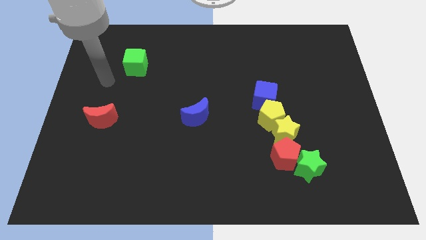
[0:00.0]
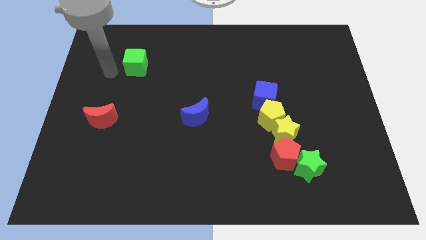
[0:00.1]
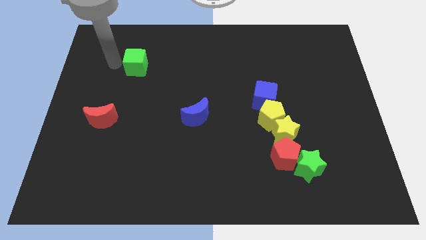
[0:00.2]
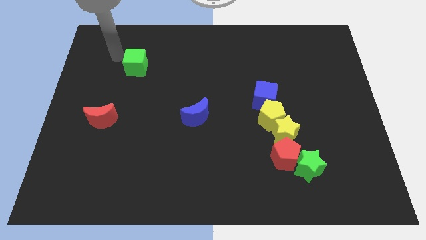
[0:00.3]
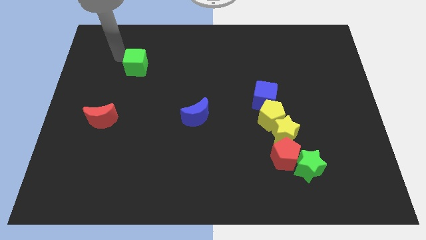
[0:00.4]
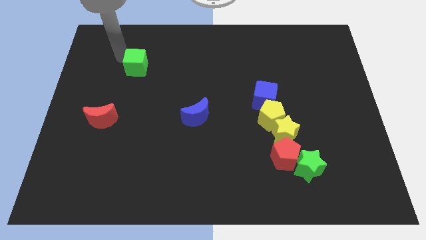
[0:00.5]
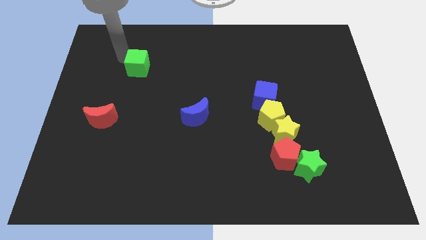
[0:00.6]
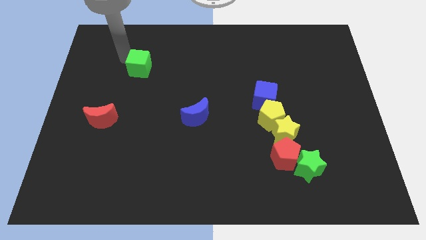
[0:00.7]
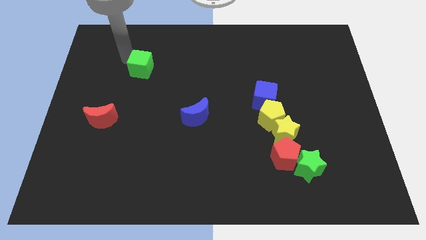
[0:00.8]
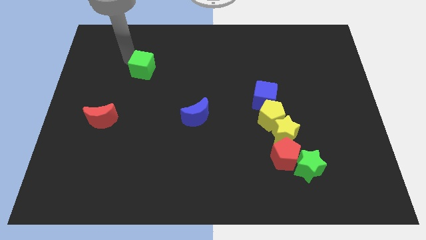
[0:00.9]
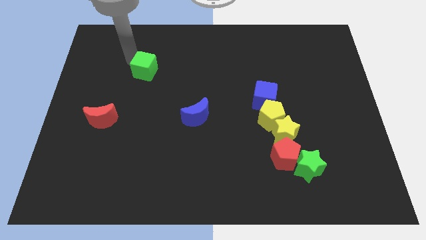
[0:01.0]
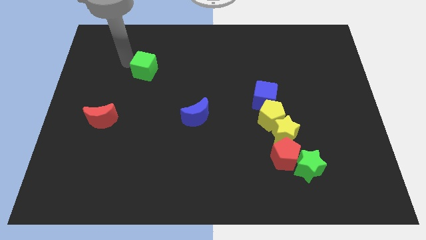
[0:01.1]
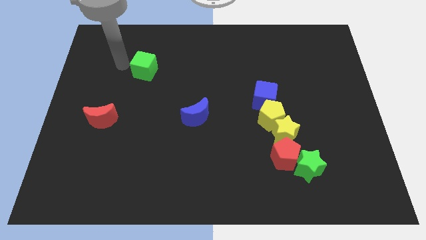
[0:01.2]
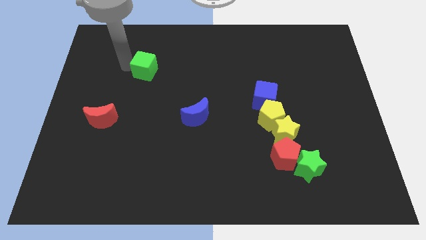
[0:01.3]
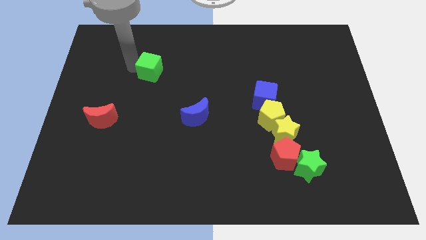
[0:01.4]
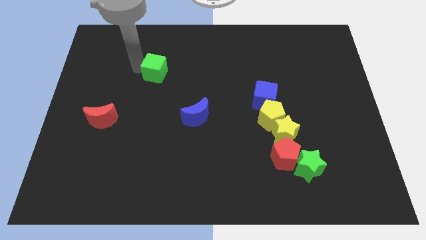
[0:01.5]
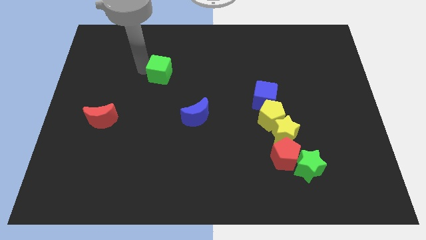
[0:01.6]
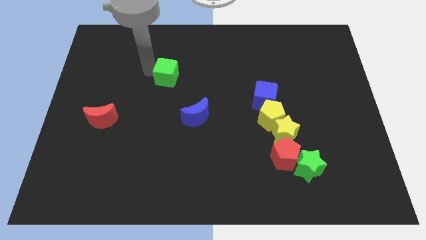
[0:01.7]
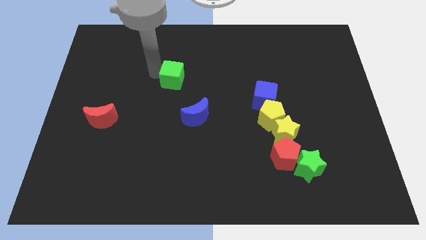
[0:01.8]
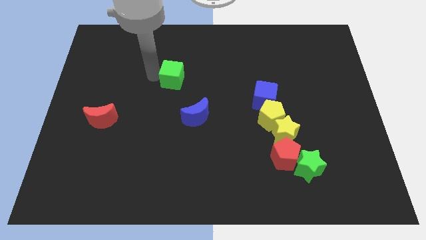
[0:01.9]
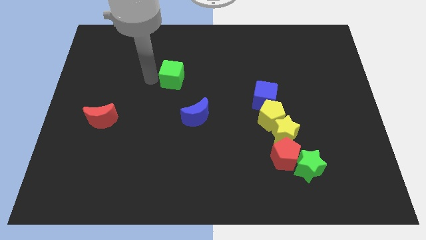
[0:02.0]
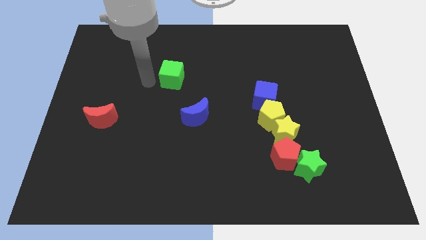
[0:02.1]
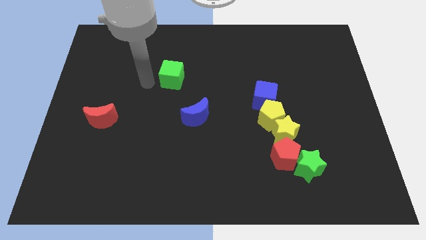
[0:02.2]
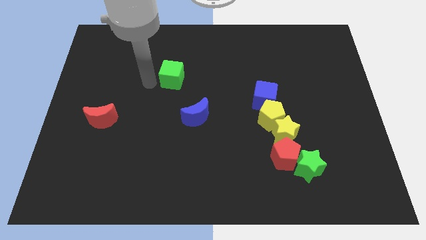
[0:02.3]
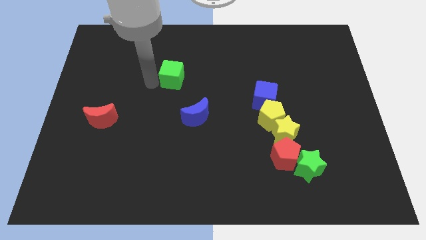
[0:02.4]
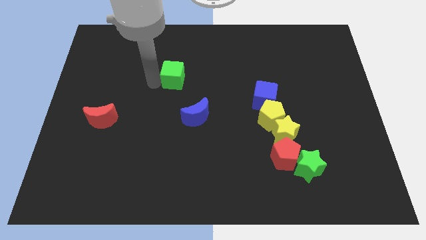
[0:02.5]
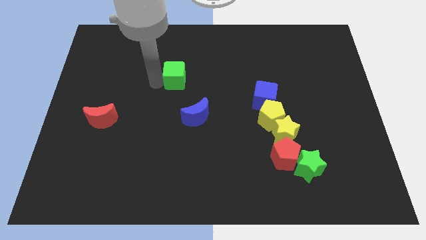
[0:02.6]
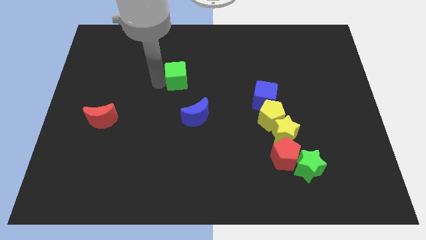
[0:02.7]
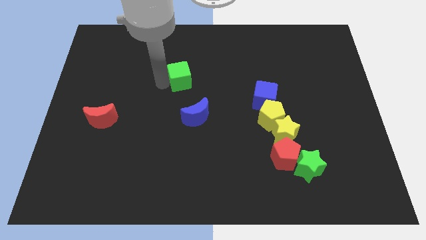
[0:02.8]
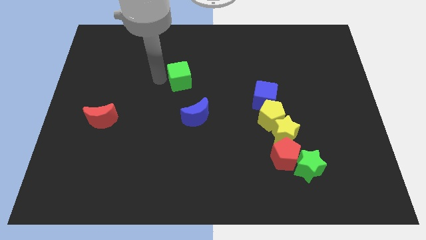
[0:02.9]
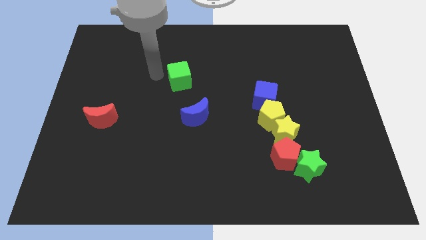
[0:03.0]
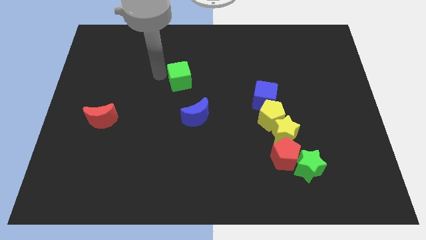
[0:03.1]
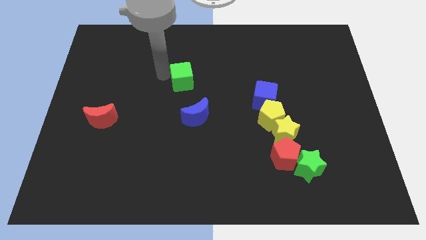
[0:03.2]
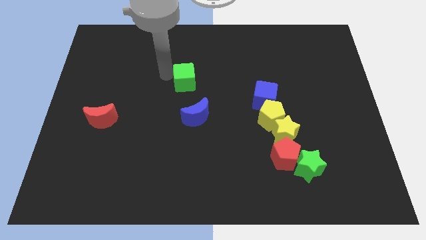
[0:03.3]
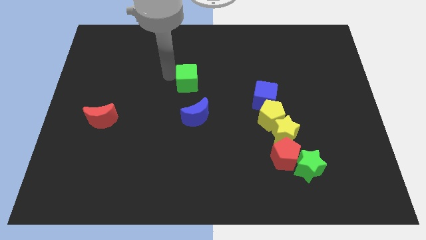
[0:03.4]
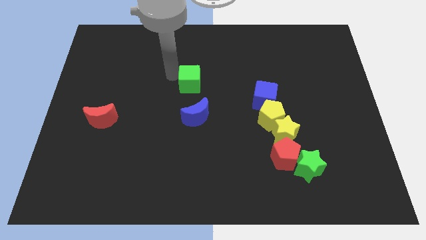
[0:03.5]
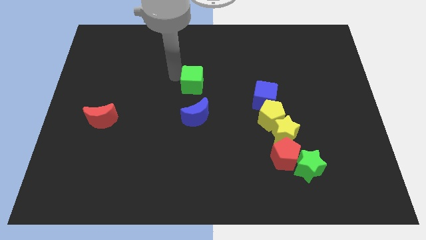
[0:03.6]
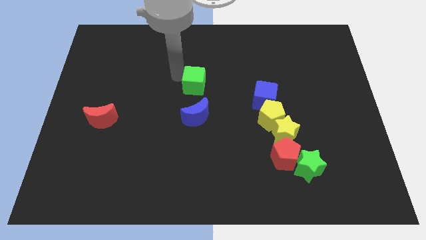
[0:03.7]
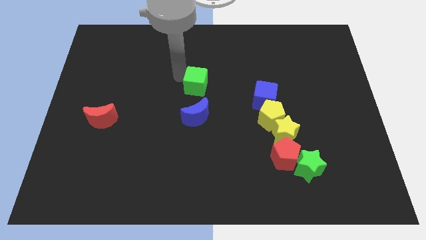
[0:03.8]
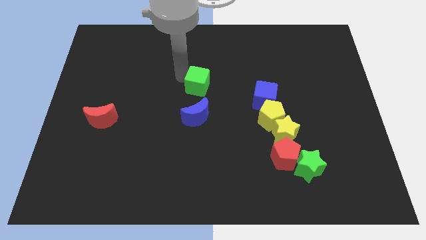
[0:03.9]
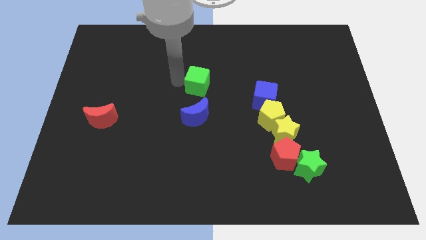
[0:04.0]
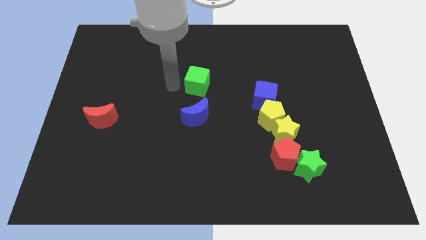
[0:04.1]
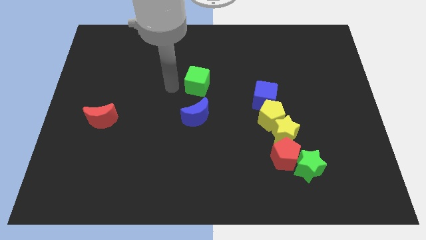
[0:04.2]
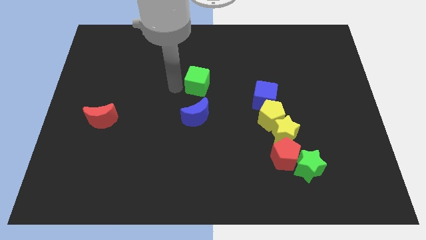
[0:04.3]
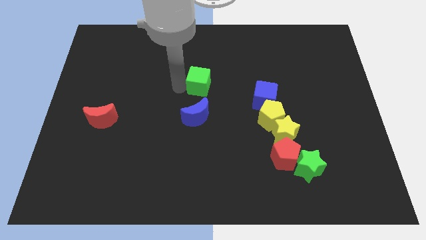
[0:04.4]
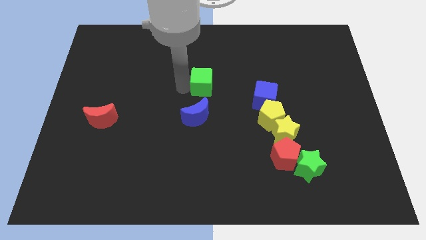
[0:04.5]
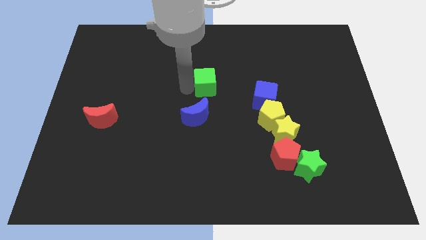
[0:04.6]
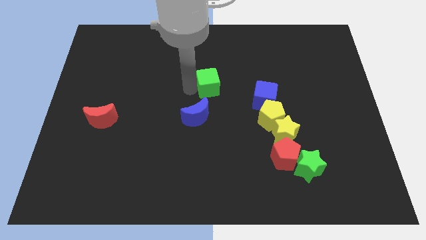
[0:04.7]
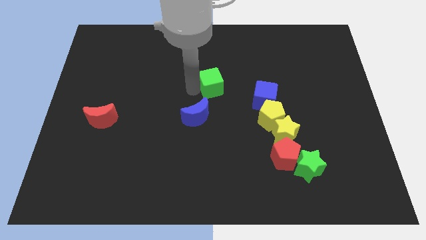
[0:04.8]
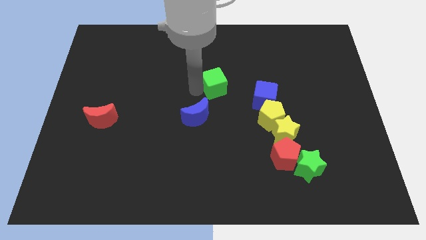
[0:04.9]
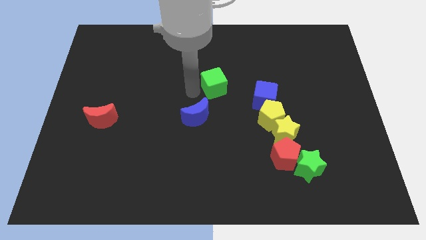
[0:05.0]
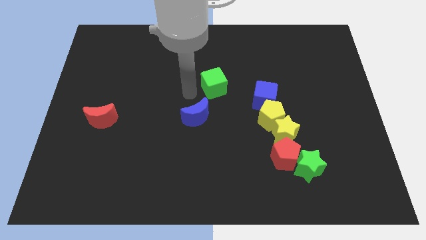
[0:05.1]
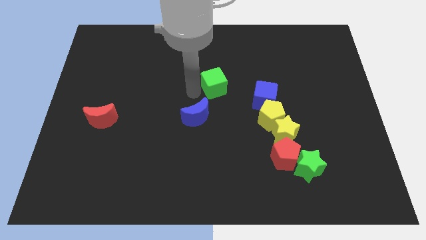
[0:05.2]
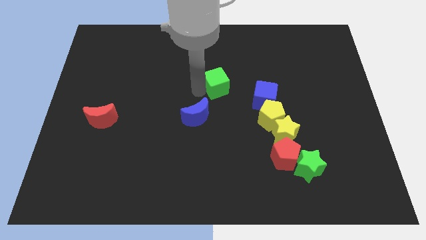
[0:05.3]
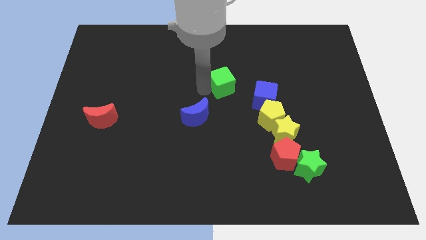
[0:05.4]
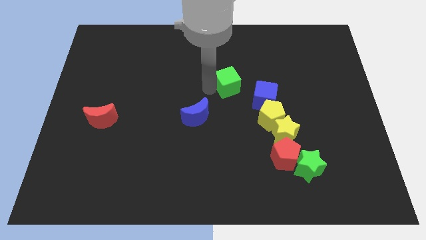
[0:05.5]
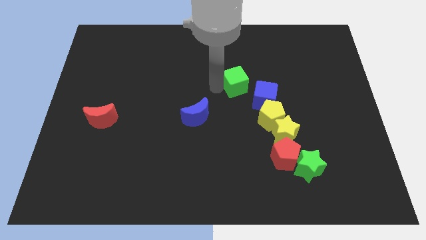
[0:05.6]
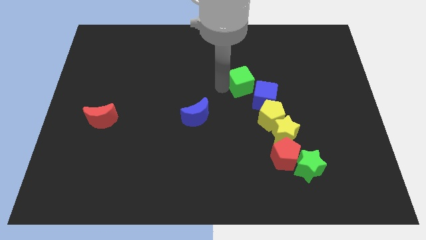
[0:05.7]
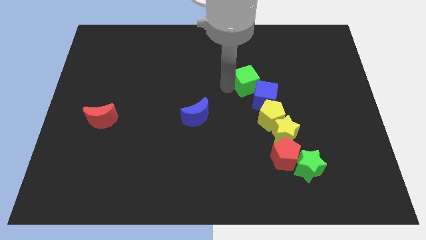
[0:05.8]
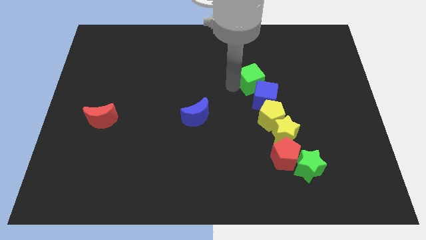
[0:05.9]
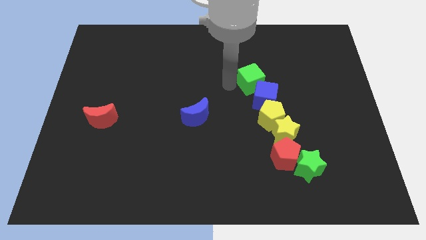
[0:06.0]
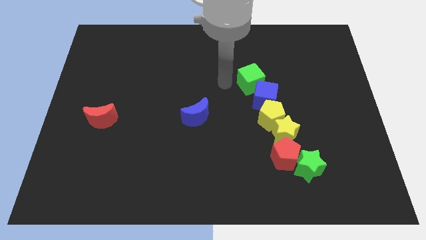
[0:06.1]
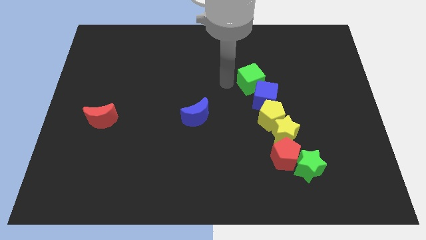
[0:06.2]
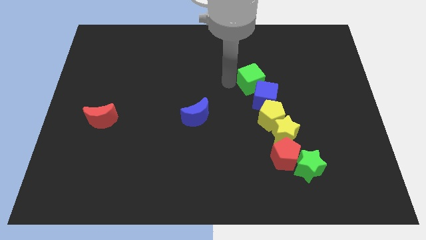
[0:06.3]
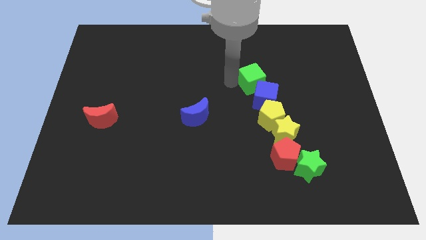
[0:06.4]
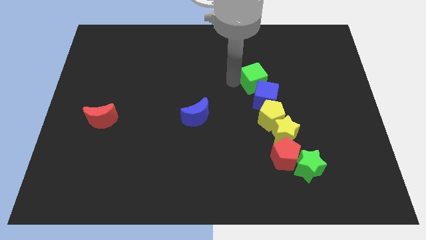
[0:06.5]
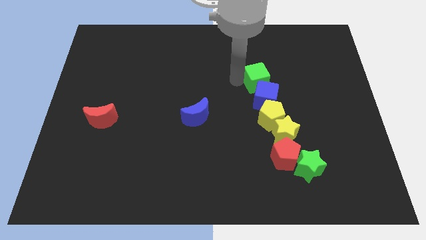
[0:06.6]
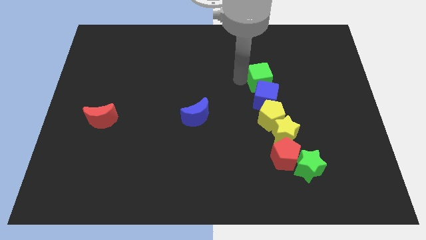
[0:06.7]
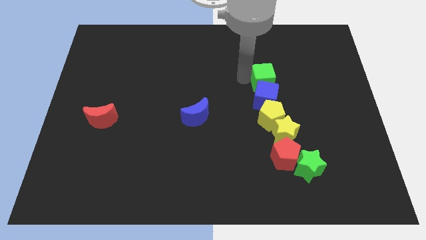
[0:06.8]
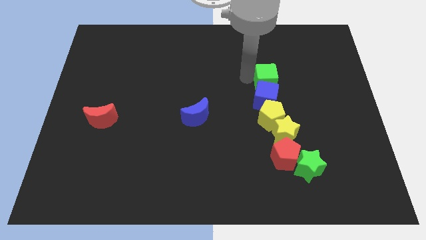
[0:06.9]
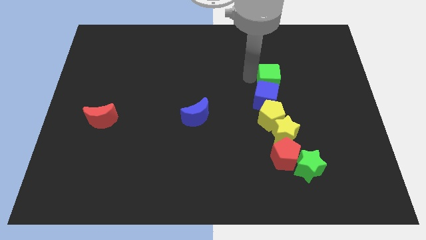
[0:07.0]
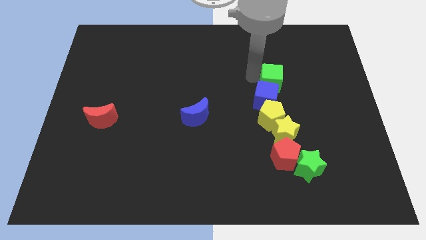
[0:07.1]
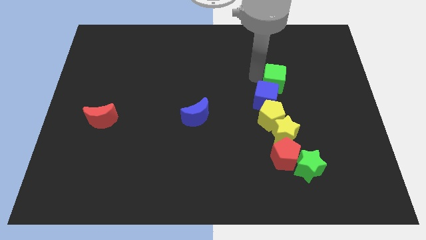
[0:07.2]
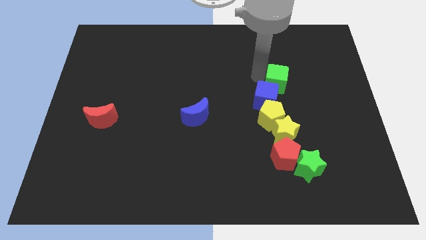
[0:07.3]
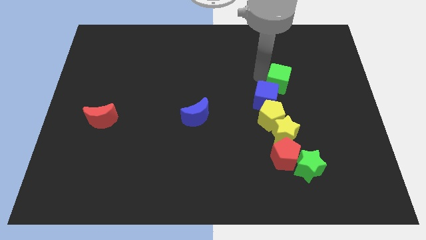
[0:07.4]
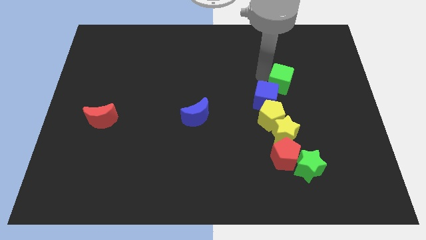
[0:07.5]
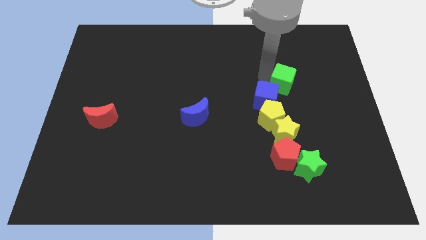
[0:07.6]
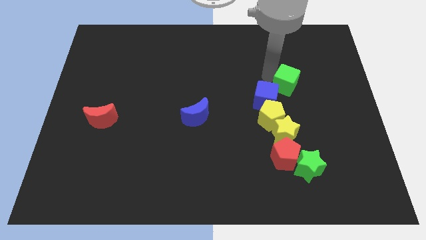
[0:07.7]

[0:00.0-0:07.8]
move the green cube right of the blue cube
